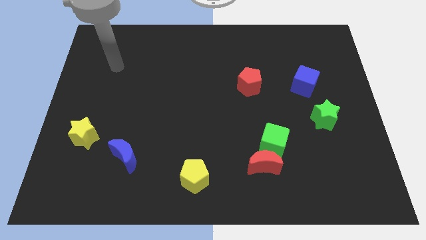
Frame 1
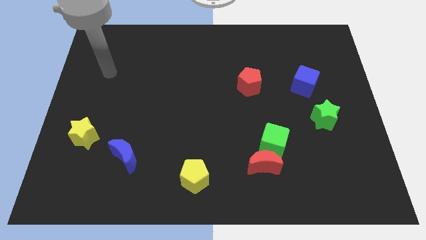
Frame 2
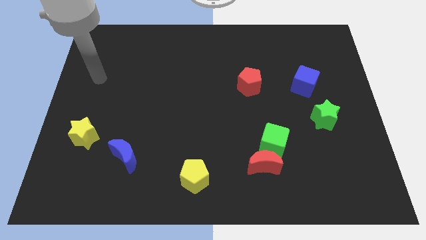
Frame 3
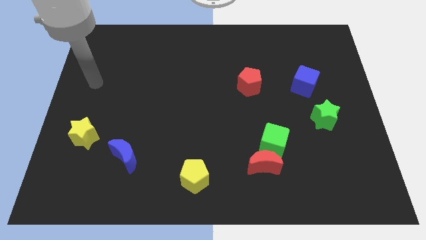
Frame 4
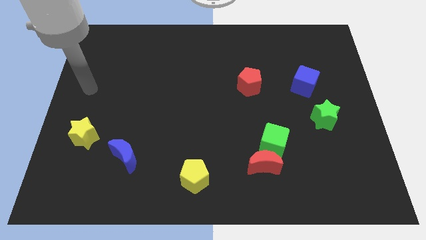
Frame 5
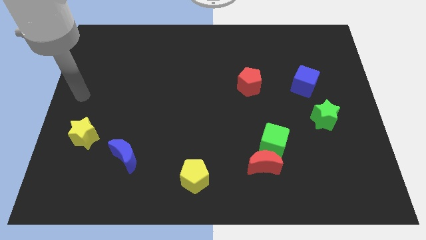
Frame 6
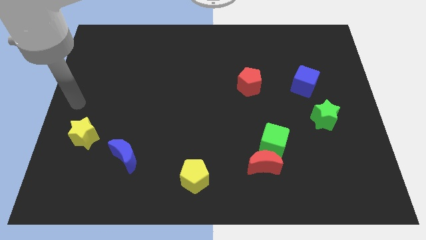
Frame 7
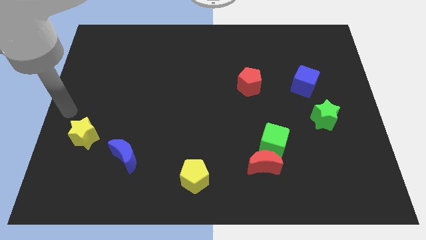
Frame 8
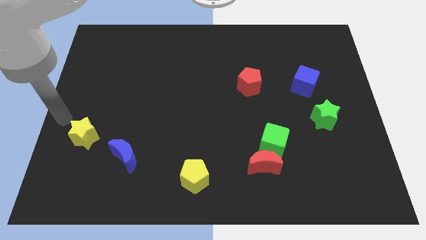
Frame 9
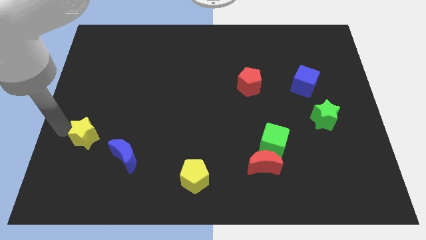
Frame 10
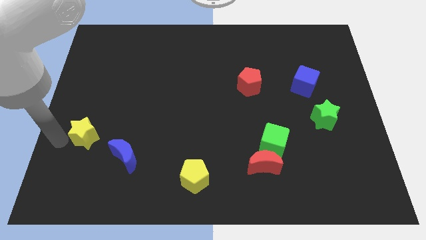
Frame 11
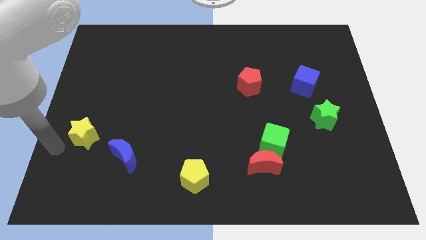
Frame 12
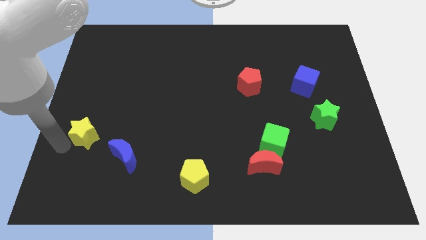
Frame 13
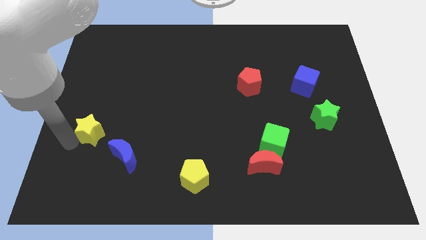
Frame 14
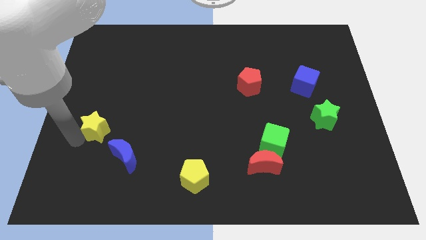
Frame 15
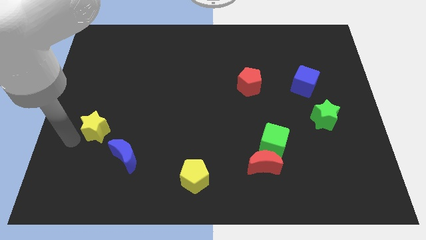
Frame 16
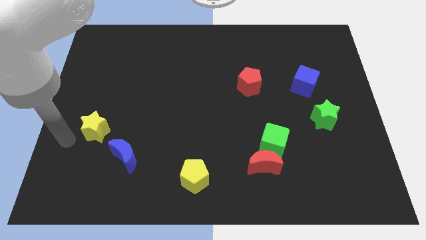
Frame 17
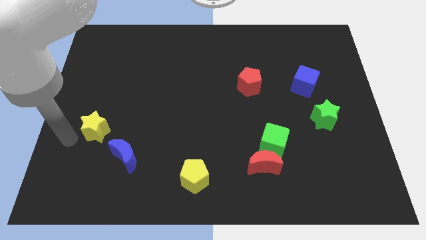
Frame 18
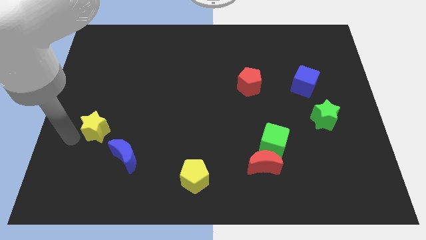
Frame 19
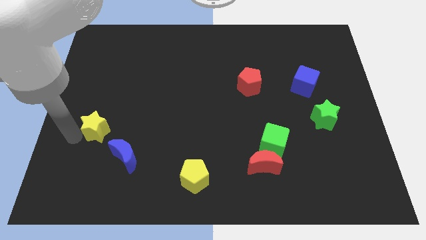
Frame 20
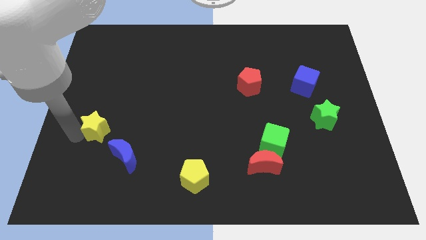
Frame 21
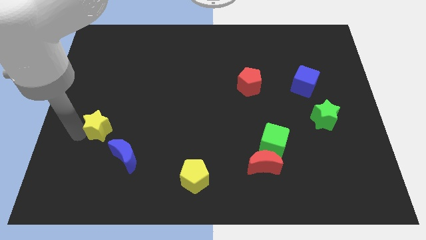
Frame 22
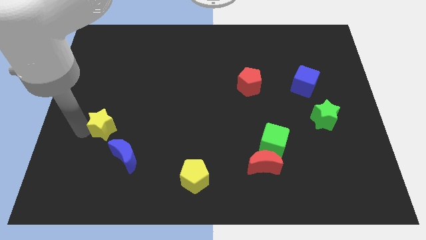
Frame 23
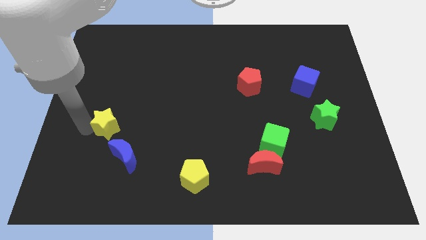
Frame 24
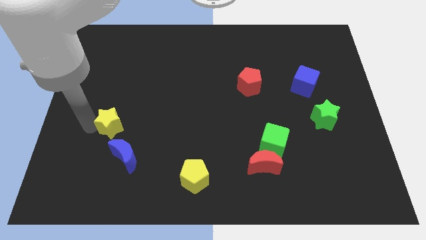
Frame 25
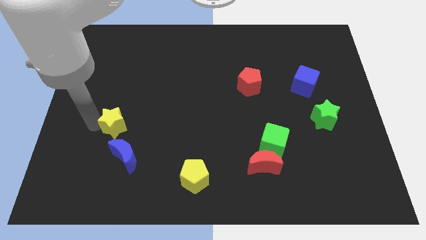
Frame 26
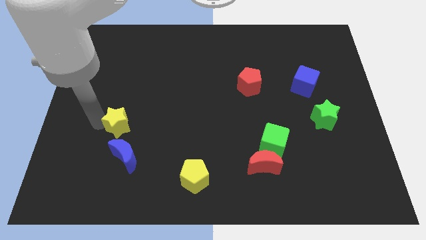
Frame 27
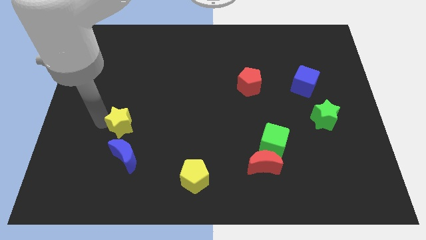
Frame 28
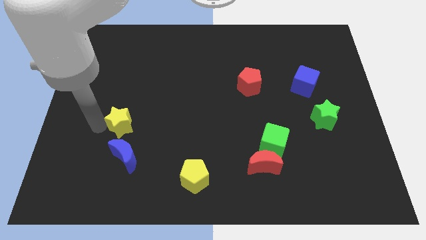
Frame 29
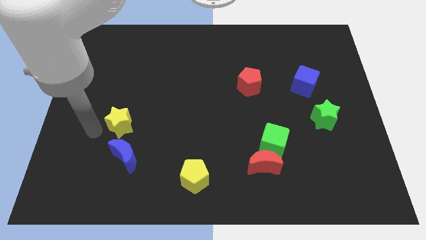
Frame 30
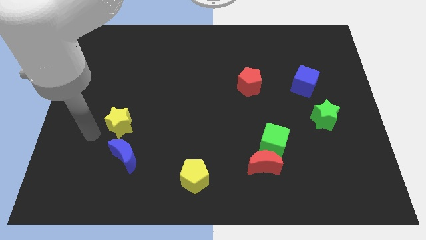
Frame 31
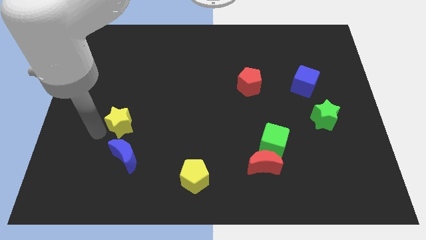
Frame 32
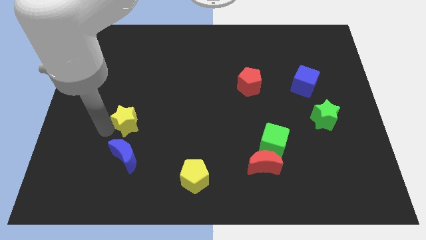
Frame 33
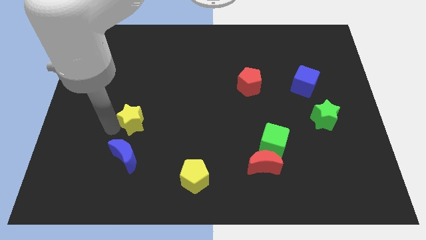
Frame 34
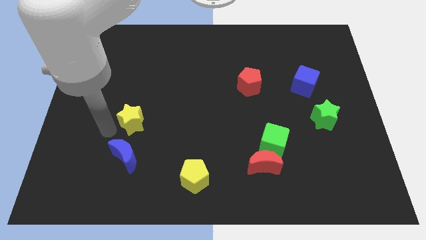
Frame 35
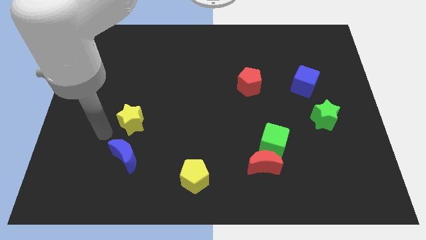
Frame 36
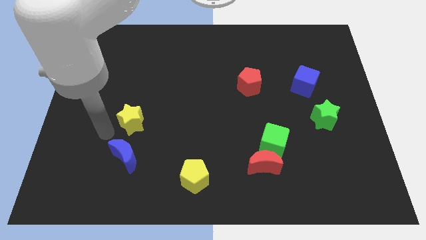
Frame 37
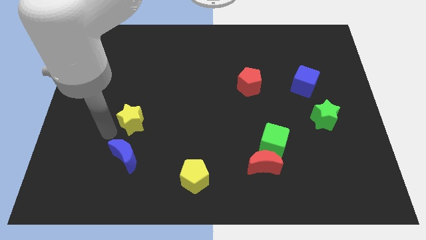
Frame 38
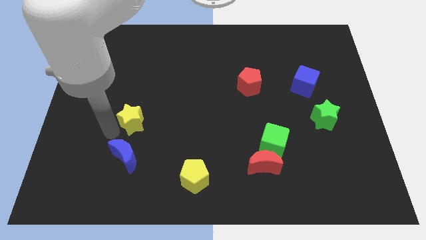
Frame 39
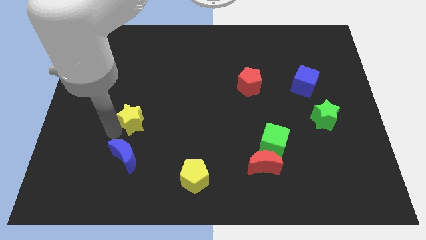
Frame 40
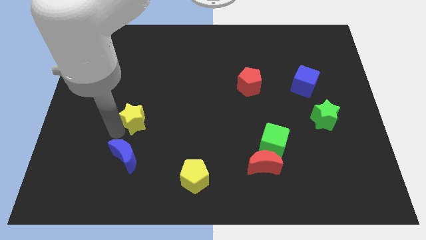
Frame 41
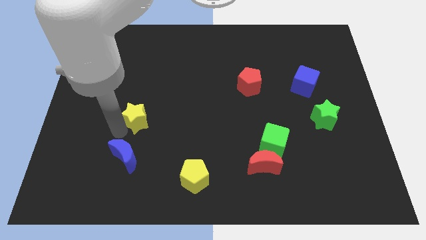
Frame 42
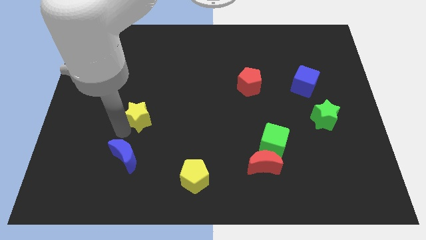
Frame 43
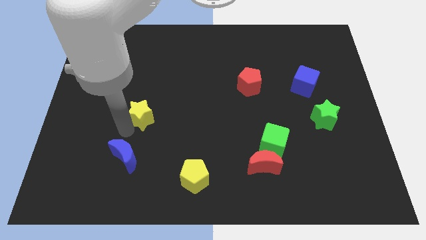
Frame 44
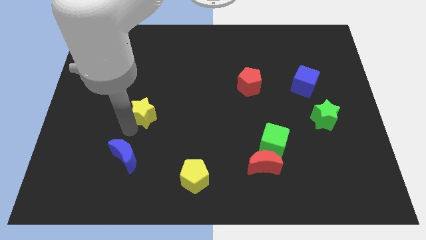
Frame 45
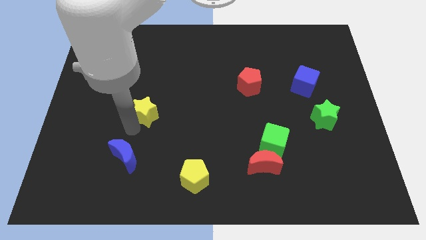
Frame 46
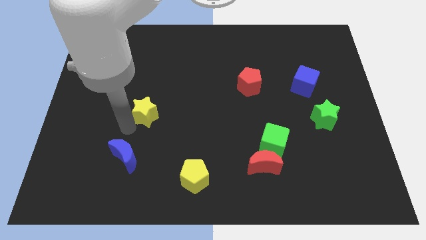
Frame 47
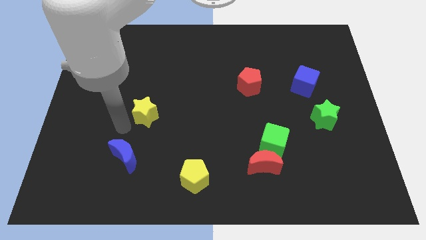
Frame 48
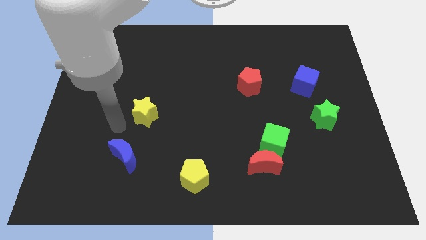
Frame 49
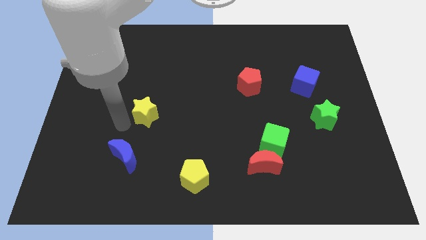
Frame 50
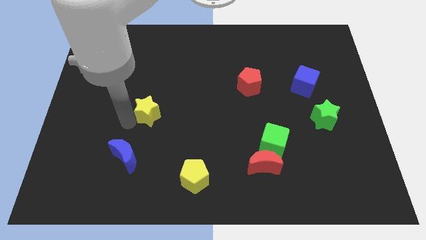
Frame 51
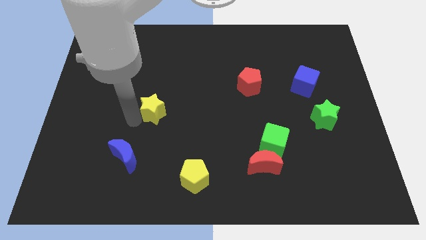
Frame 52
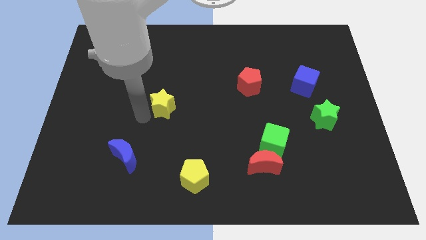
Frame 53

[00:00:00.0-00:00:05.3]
put the yellow star to the middle
